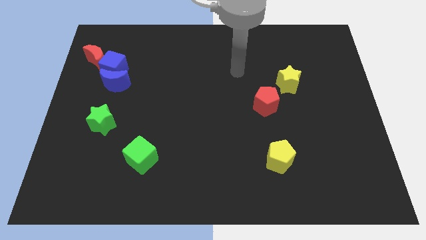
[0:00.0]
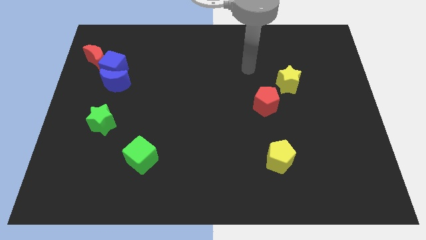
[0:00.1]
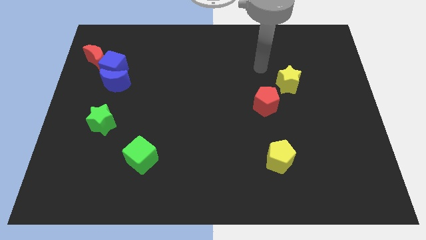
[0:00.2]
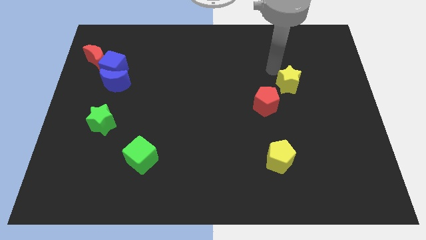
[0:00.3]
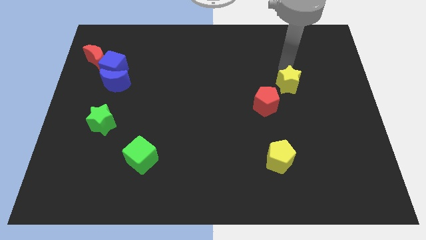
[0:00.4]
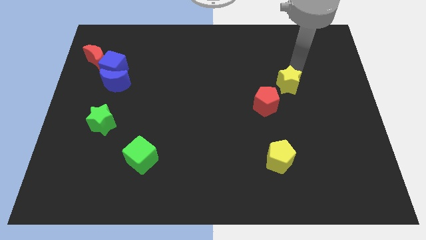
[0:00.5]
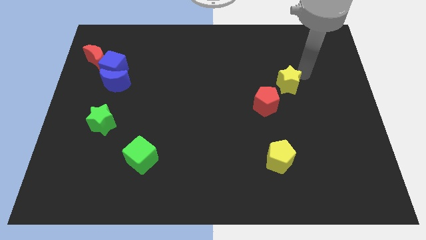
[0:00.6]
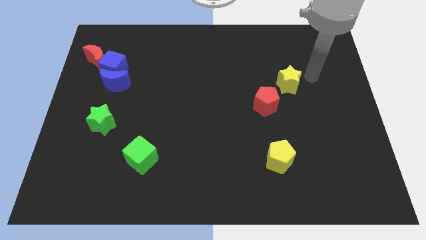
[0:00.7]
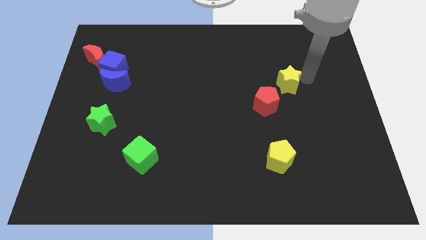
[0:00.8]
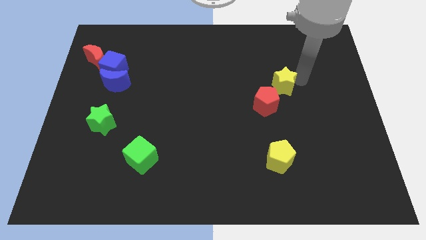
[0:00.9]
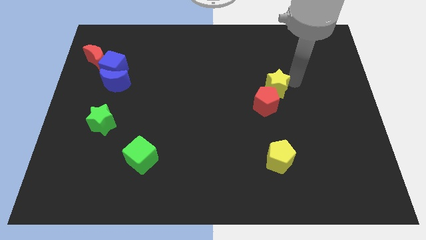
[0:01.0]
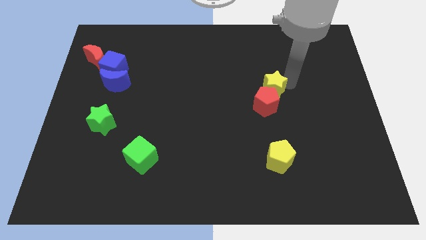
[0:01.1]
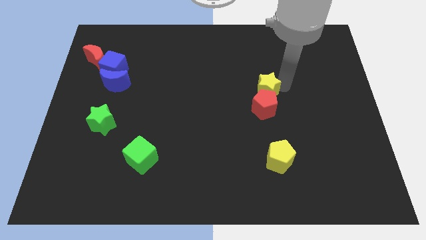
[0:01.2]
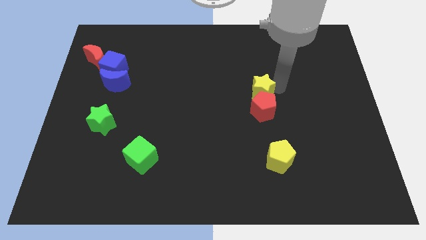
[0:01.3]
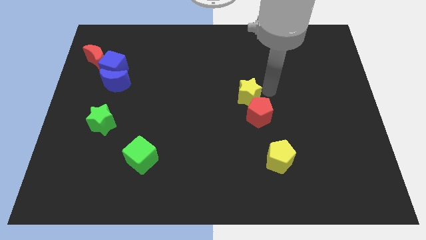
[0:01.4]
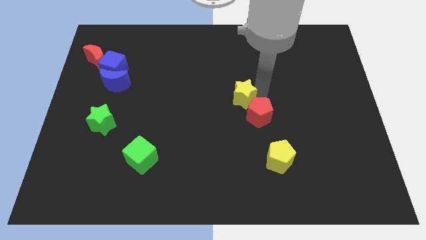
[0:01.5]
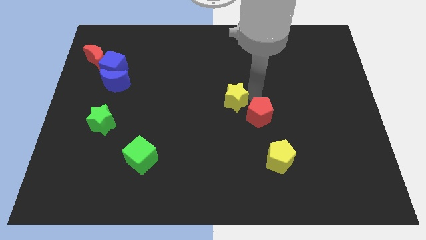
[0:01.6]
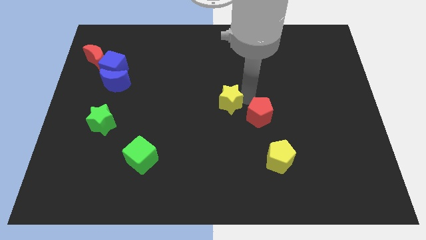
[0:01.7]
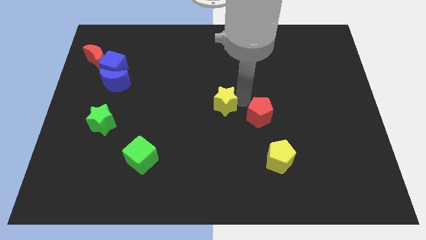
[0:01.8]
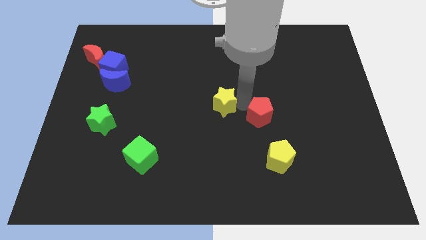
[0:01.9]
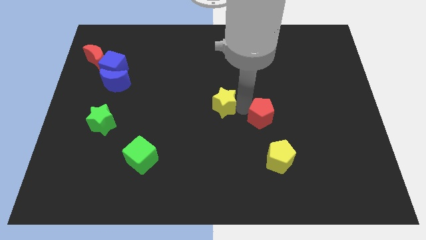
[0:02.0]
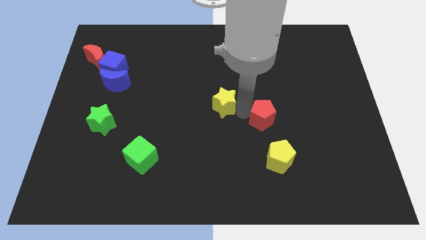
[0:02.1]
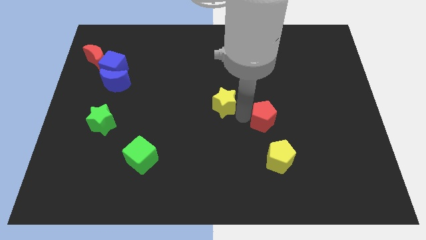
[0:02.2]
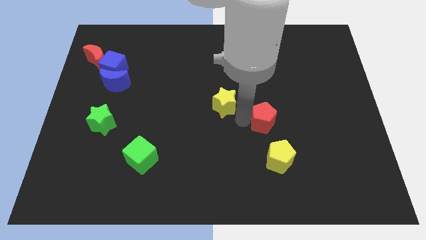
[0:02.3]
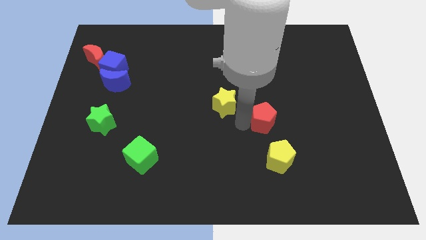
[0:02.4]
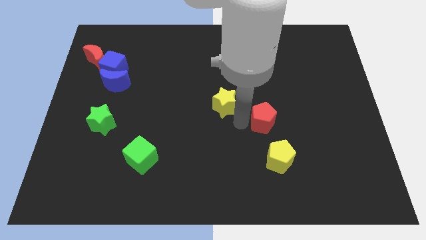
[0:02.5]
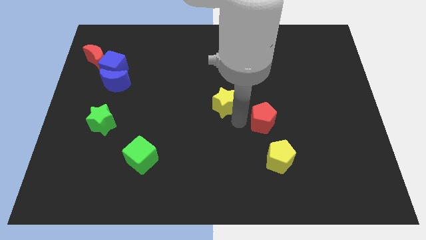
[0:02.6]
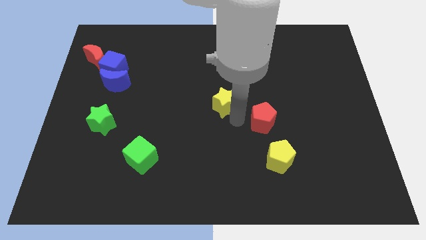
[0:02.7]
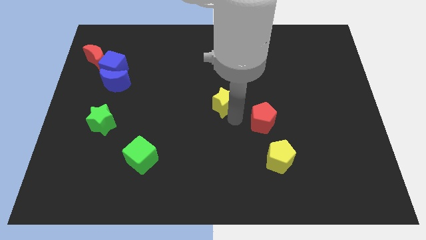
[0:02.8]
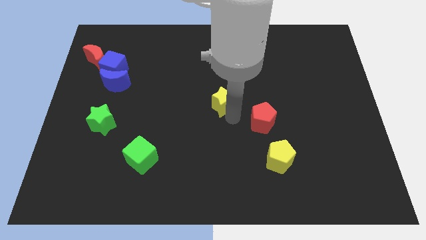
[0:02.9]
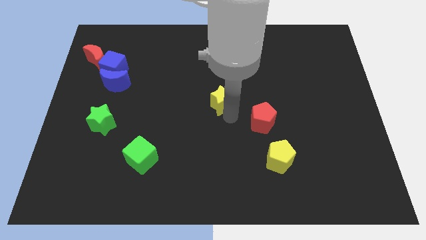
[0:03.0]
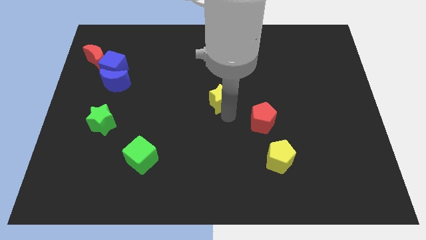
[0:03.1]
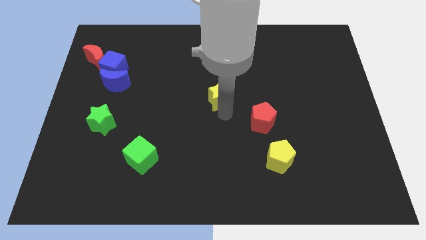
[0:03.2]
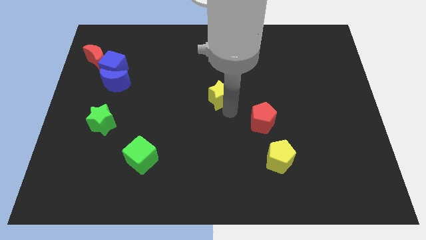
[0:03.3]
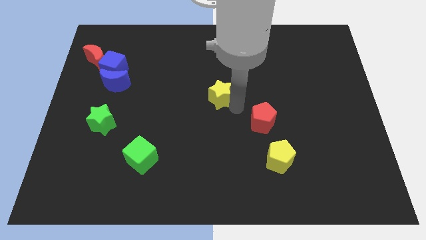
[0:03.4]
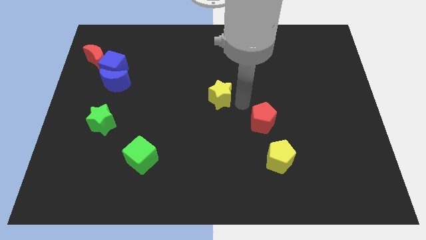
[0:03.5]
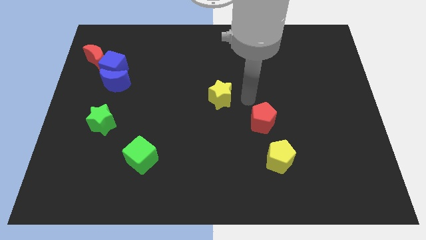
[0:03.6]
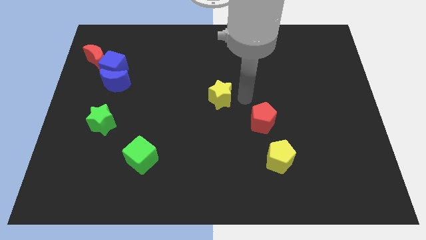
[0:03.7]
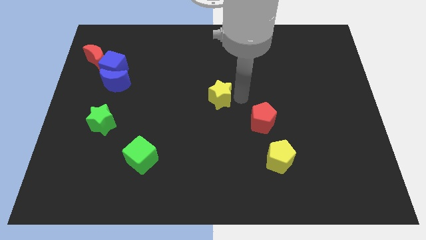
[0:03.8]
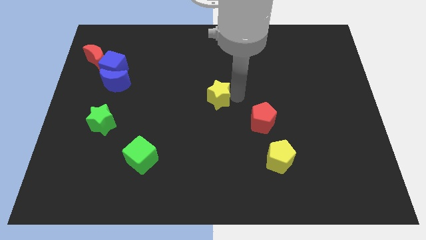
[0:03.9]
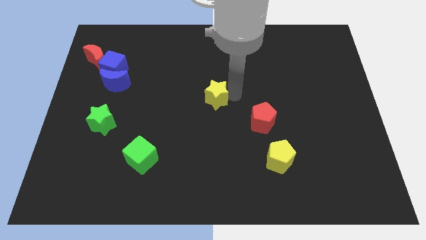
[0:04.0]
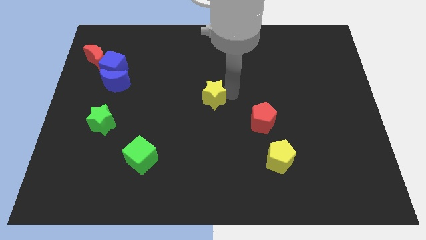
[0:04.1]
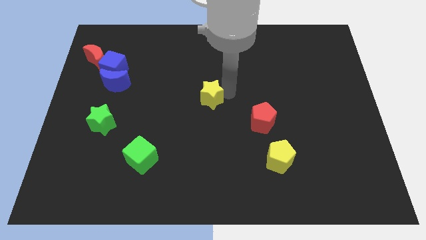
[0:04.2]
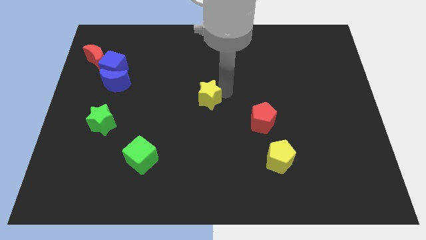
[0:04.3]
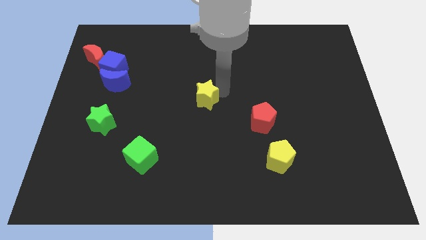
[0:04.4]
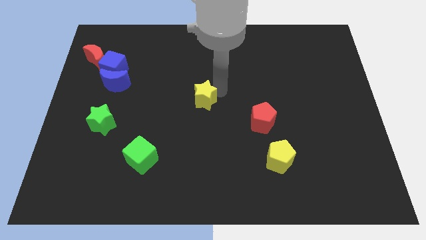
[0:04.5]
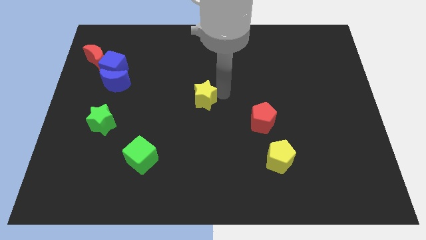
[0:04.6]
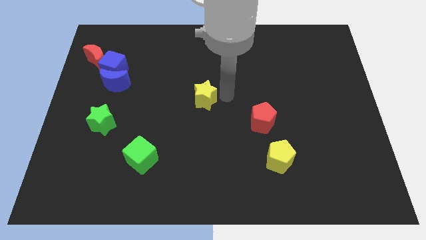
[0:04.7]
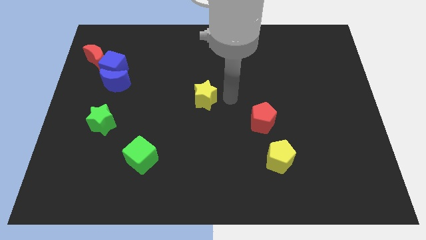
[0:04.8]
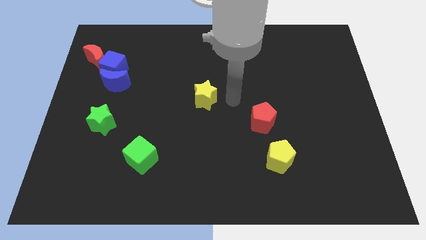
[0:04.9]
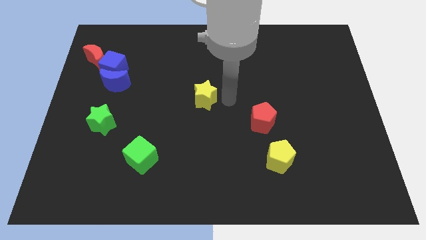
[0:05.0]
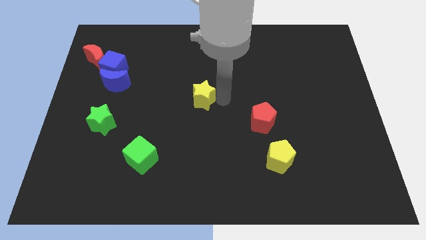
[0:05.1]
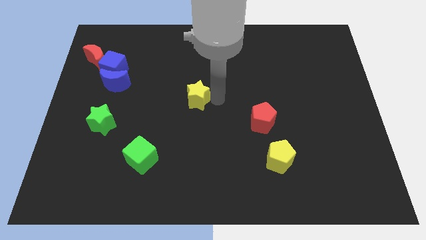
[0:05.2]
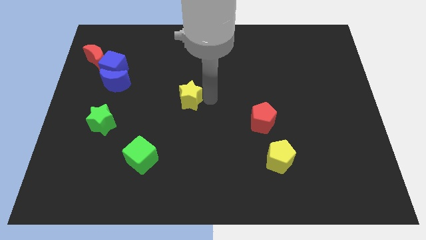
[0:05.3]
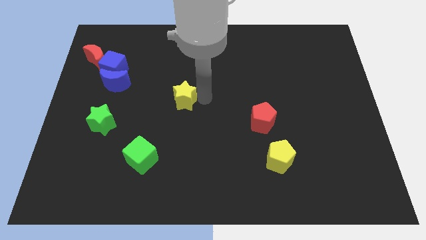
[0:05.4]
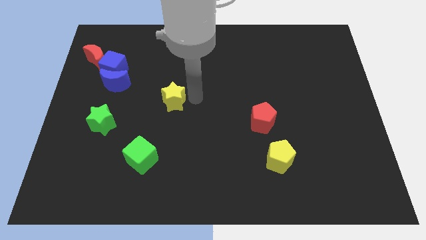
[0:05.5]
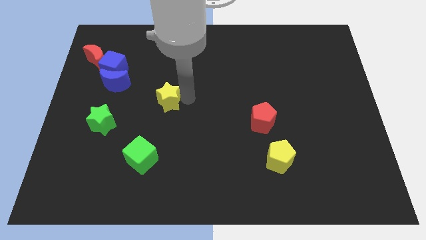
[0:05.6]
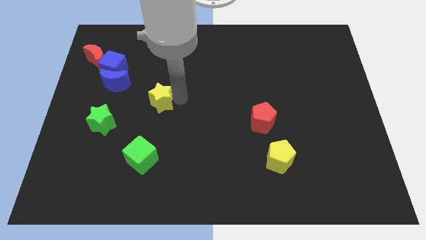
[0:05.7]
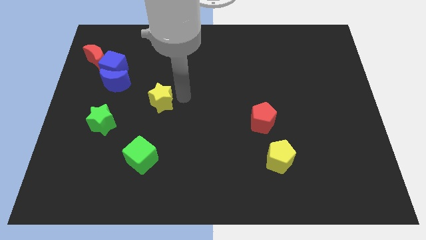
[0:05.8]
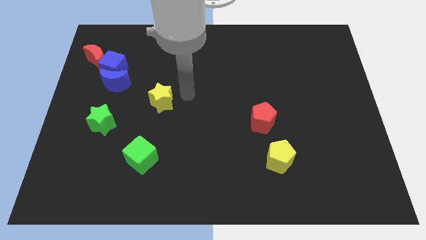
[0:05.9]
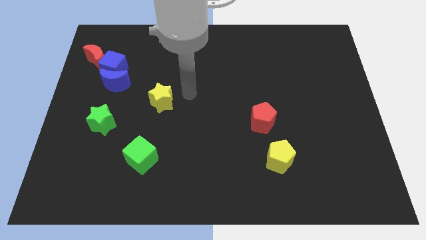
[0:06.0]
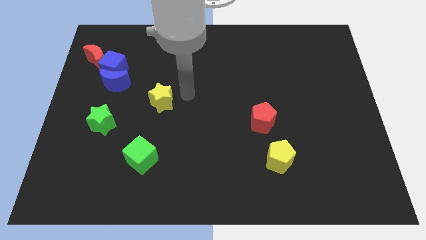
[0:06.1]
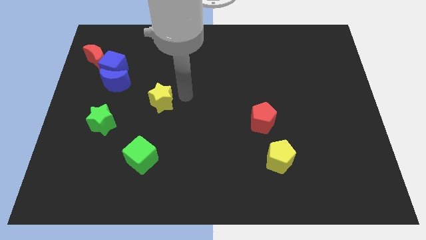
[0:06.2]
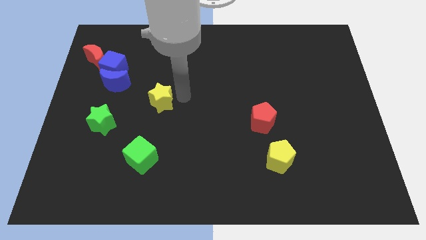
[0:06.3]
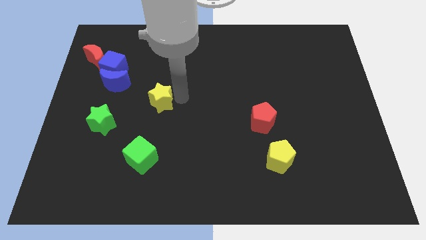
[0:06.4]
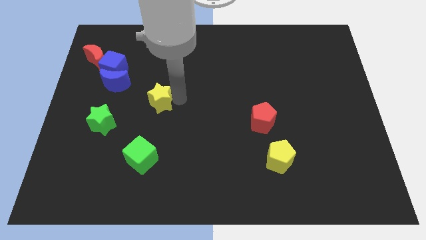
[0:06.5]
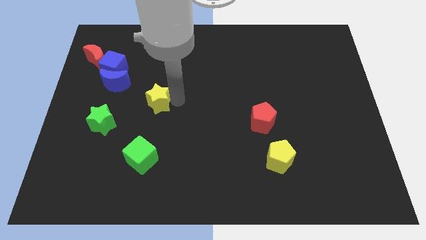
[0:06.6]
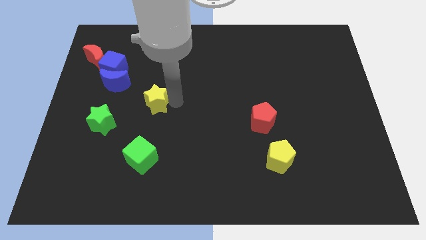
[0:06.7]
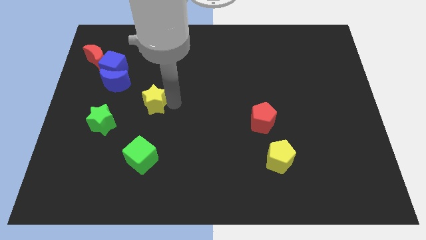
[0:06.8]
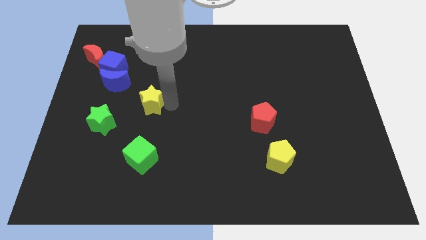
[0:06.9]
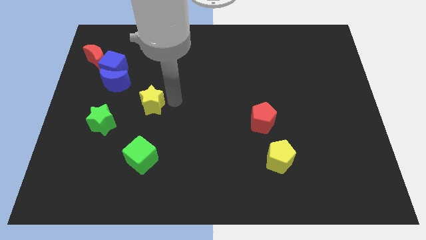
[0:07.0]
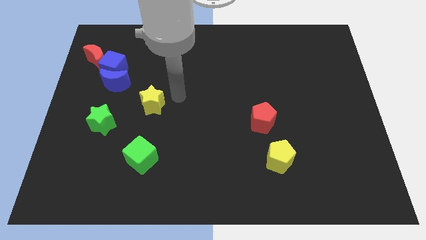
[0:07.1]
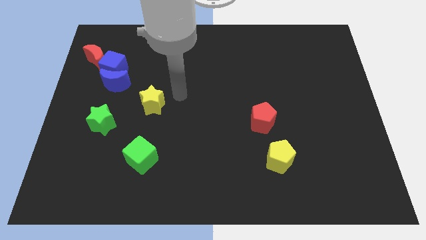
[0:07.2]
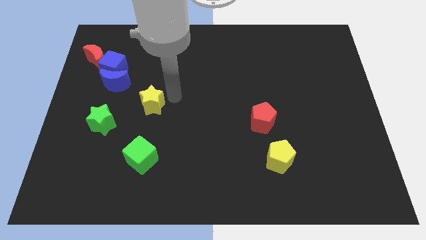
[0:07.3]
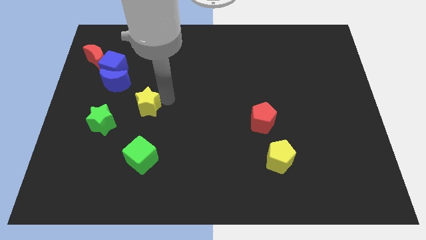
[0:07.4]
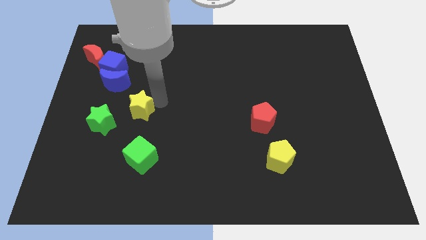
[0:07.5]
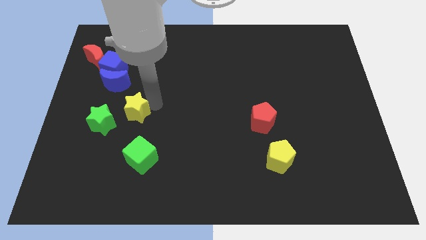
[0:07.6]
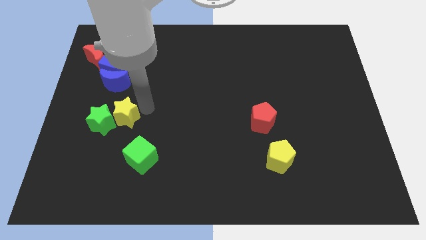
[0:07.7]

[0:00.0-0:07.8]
push the yellow star towards the green star

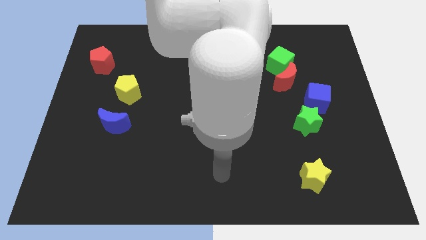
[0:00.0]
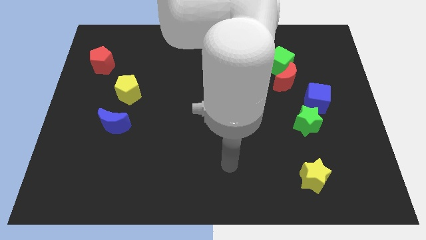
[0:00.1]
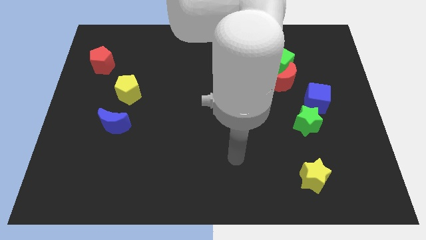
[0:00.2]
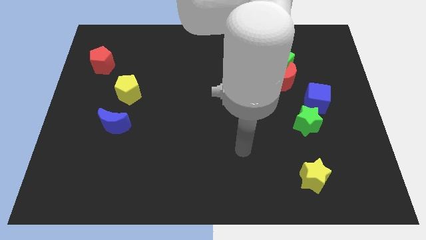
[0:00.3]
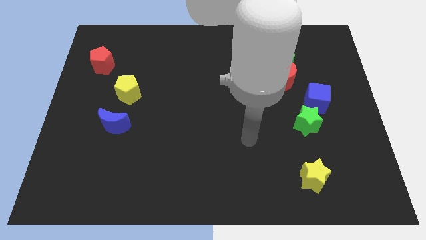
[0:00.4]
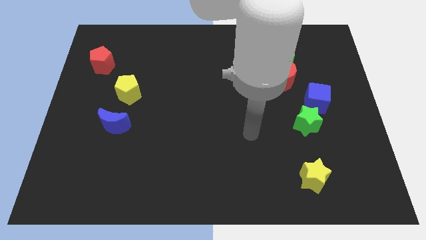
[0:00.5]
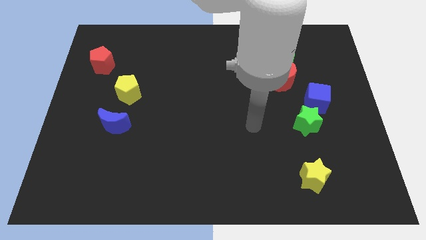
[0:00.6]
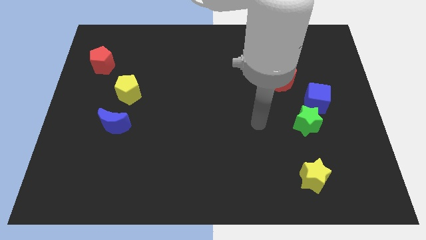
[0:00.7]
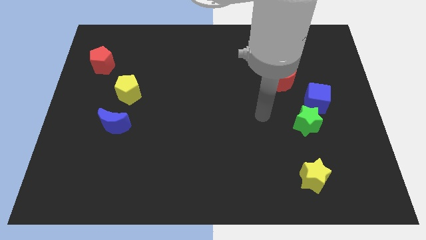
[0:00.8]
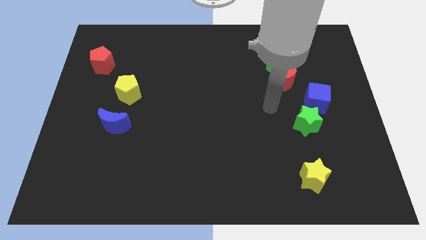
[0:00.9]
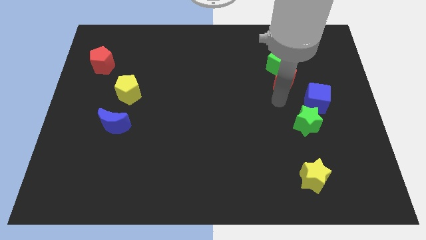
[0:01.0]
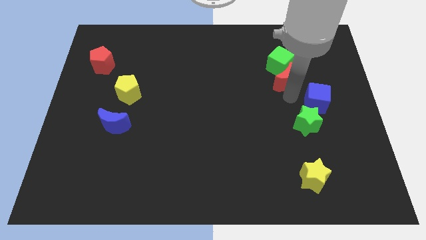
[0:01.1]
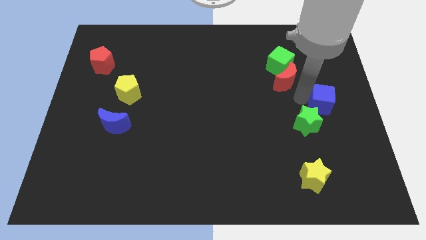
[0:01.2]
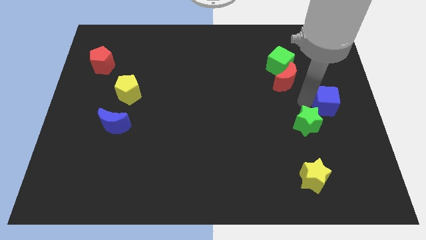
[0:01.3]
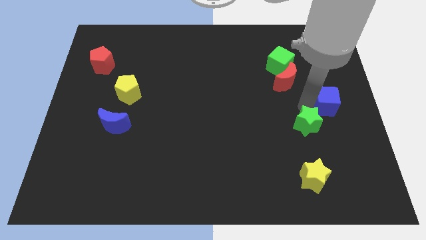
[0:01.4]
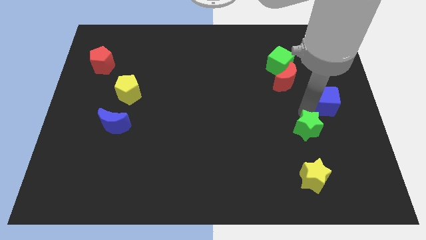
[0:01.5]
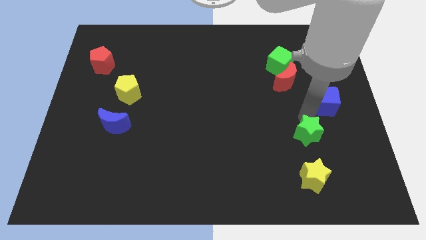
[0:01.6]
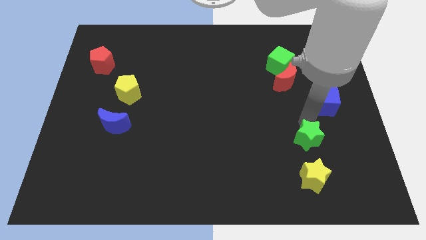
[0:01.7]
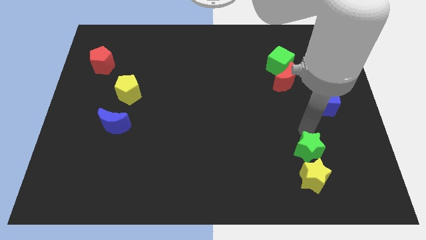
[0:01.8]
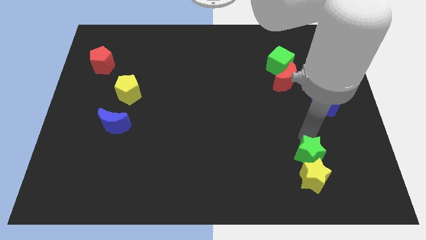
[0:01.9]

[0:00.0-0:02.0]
slide the green star towards the yellow star
